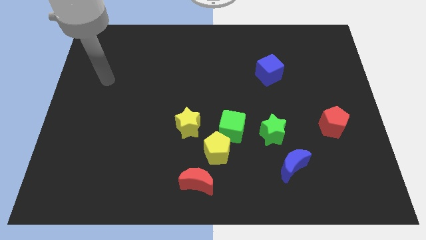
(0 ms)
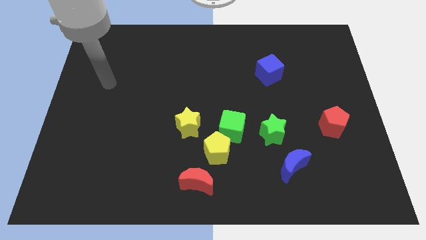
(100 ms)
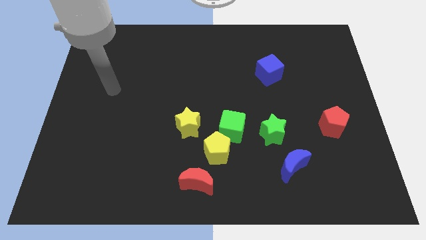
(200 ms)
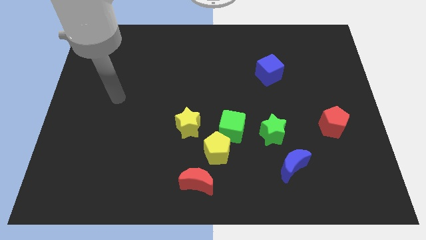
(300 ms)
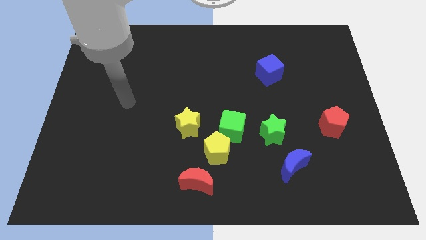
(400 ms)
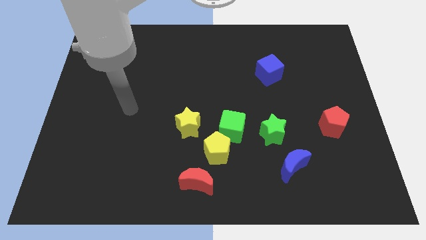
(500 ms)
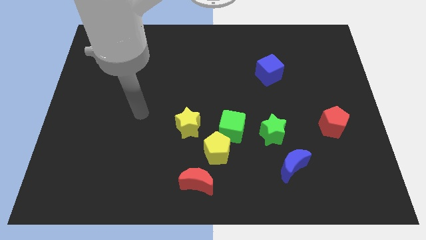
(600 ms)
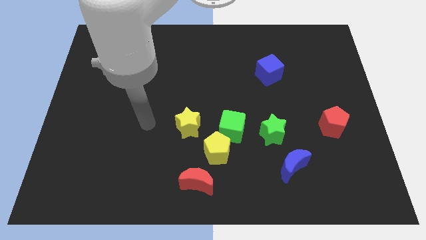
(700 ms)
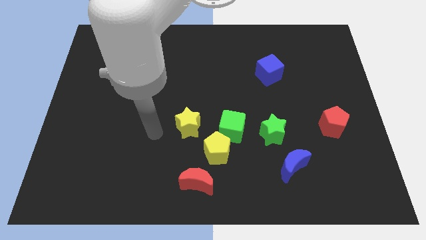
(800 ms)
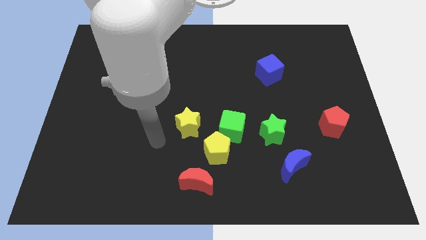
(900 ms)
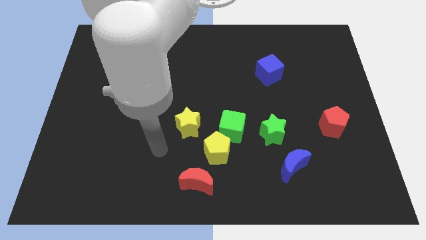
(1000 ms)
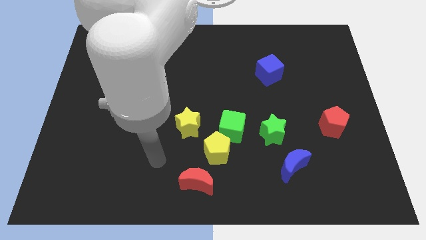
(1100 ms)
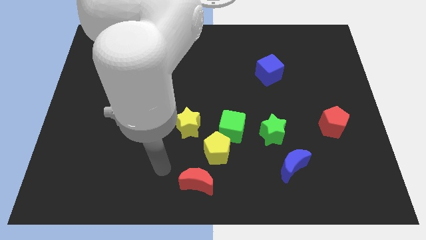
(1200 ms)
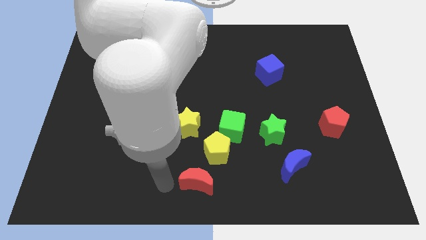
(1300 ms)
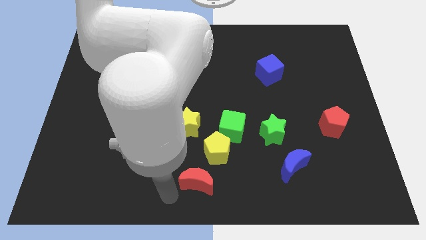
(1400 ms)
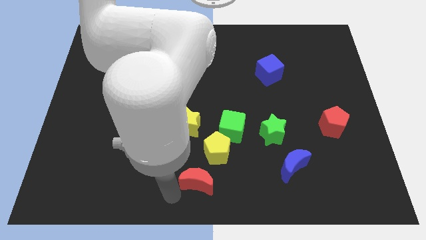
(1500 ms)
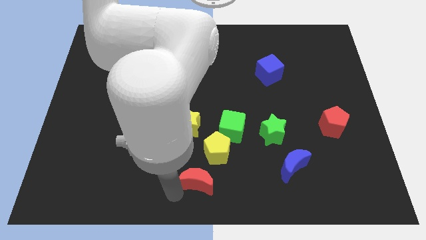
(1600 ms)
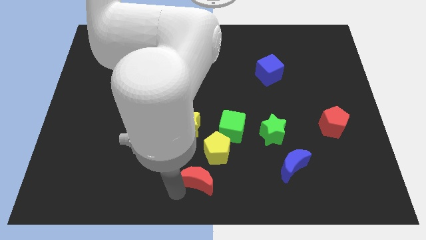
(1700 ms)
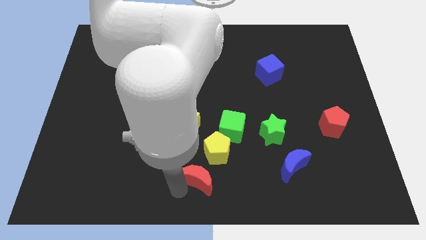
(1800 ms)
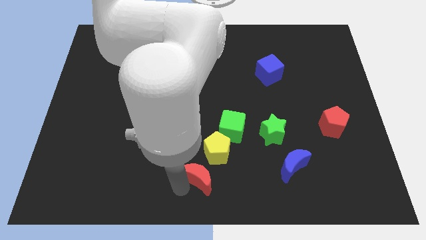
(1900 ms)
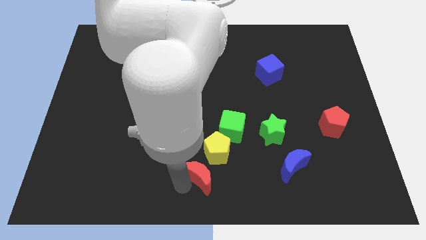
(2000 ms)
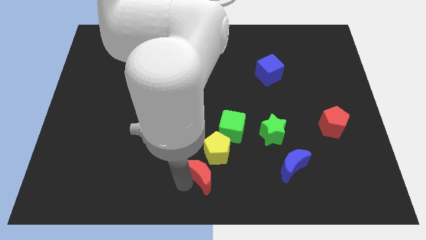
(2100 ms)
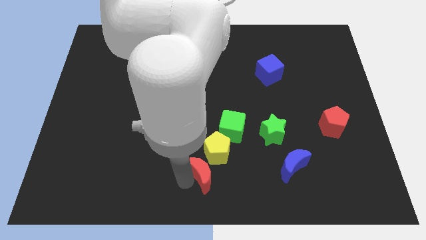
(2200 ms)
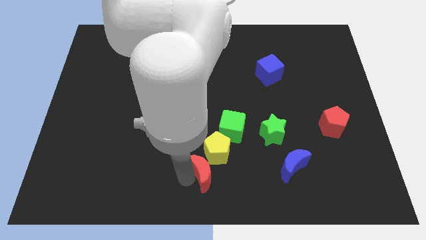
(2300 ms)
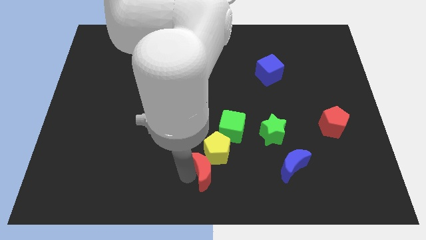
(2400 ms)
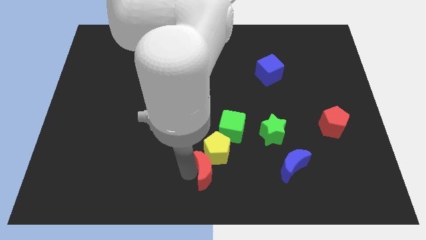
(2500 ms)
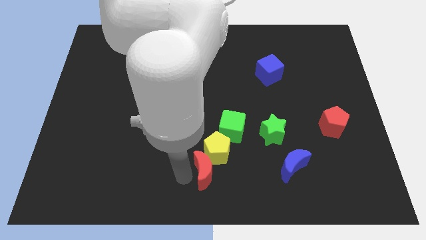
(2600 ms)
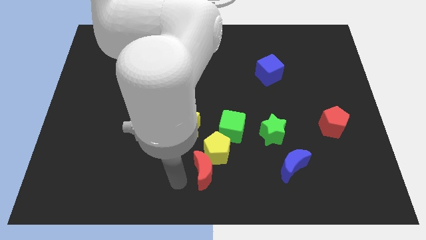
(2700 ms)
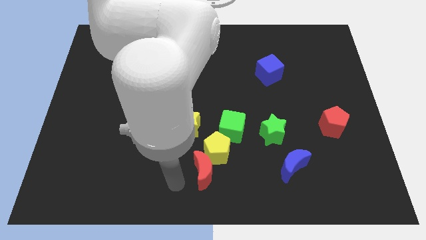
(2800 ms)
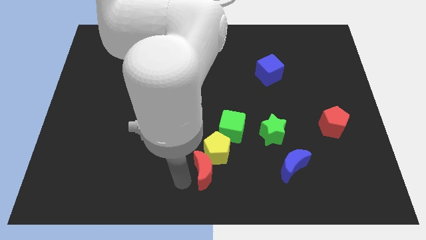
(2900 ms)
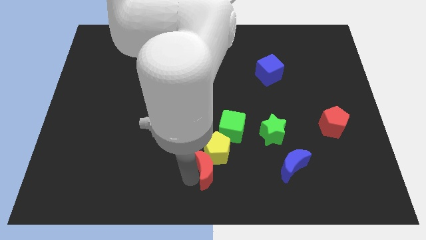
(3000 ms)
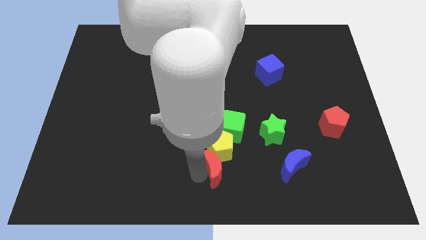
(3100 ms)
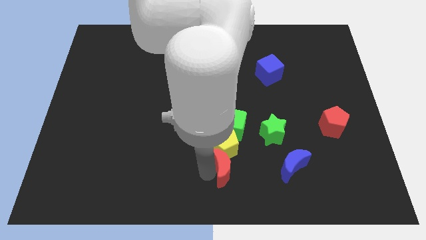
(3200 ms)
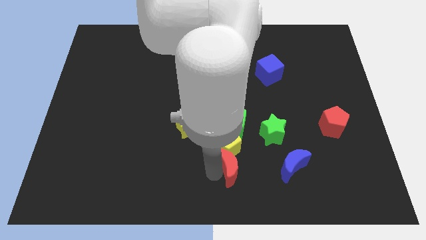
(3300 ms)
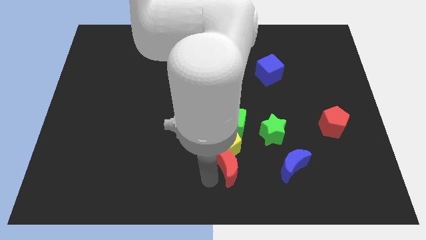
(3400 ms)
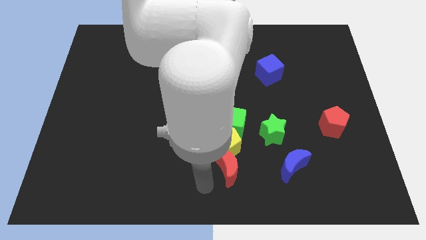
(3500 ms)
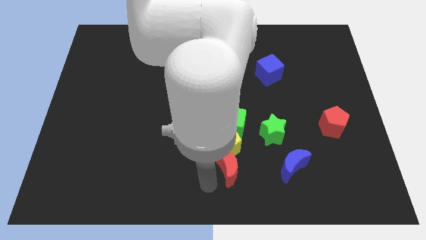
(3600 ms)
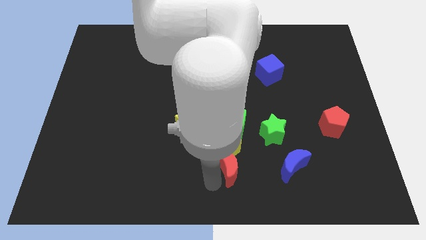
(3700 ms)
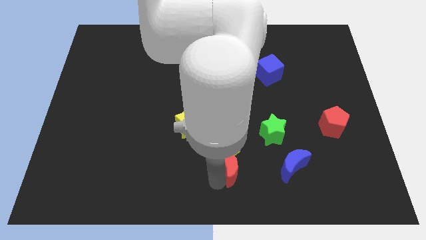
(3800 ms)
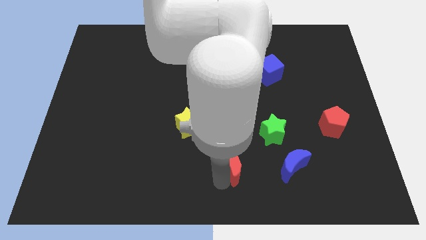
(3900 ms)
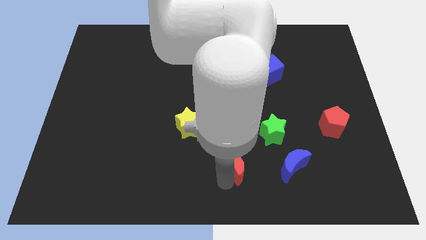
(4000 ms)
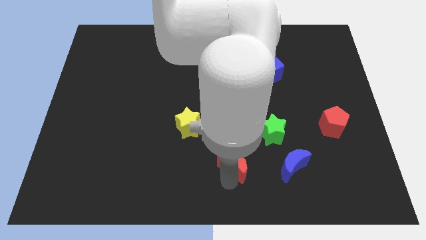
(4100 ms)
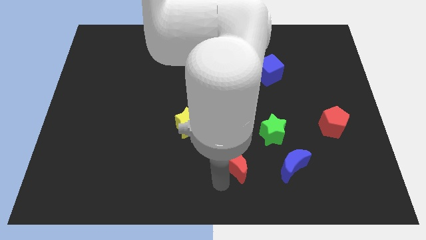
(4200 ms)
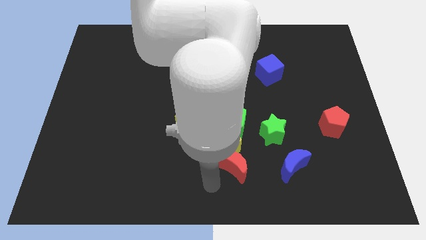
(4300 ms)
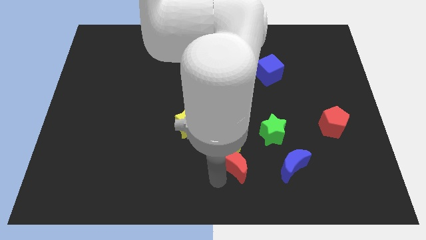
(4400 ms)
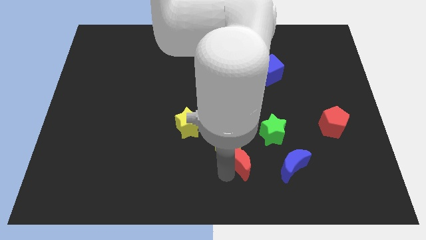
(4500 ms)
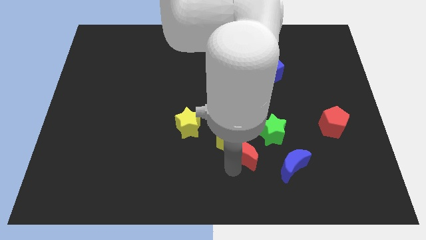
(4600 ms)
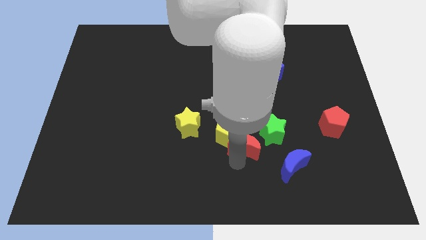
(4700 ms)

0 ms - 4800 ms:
slide the red moon to the top left of the blue moon

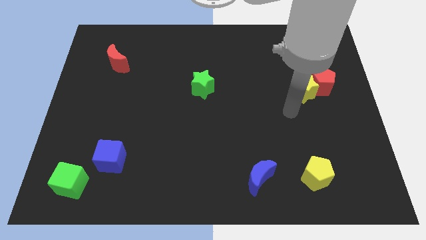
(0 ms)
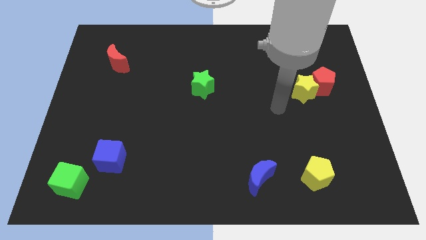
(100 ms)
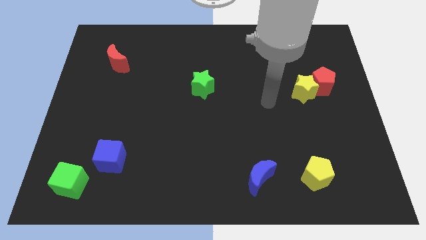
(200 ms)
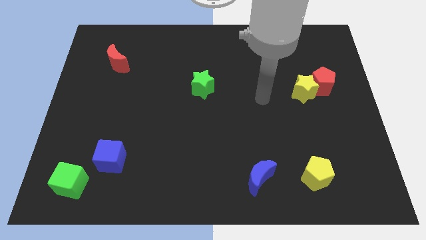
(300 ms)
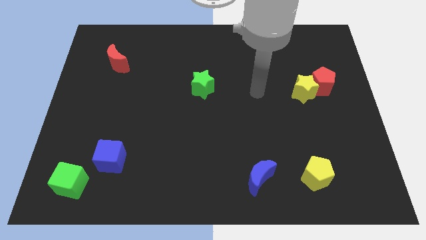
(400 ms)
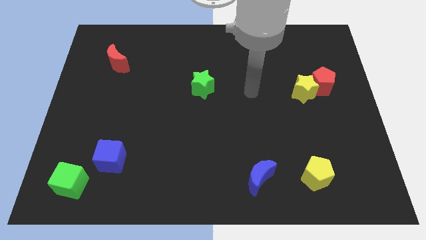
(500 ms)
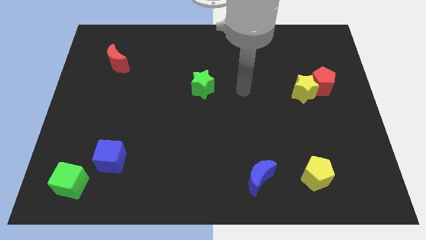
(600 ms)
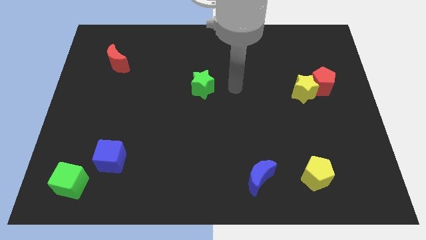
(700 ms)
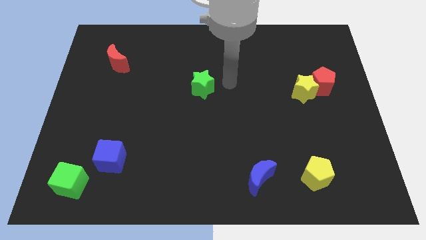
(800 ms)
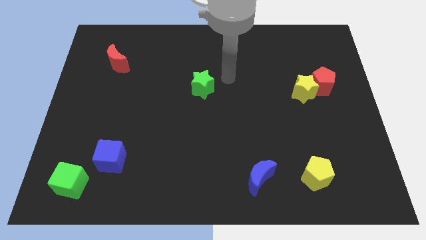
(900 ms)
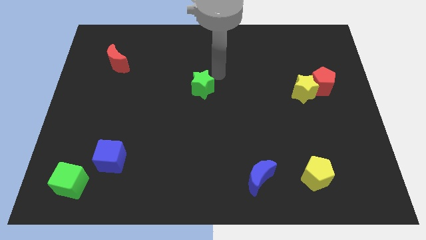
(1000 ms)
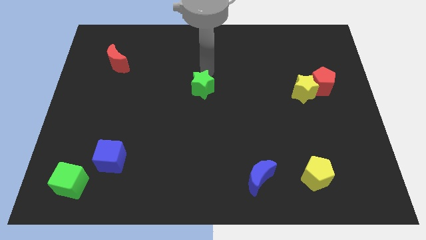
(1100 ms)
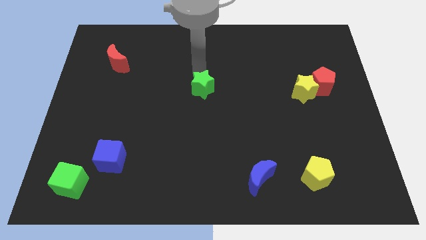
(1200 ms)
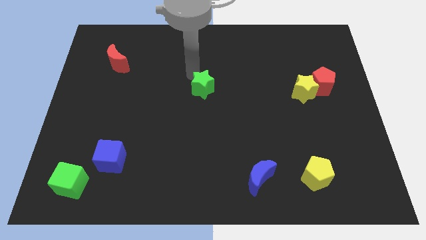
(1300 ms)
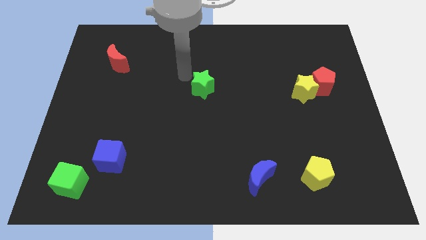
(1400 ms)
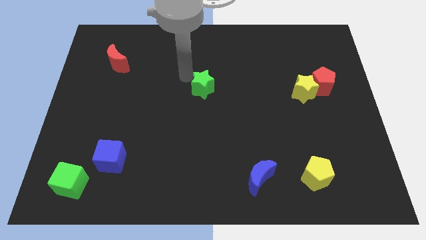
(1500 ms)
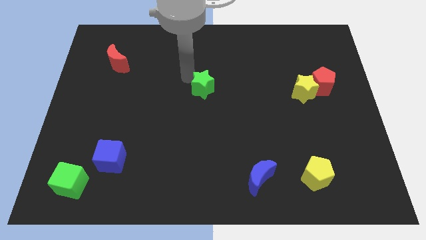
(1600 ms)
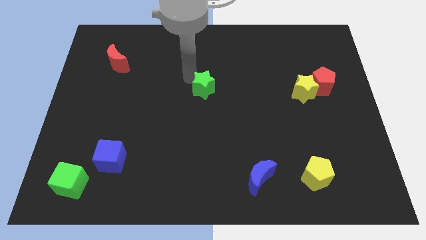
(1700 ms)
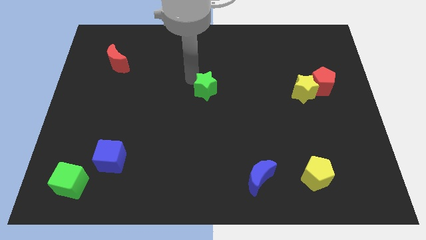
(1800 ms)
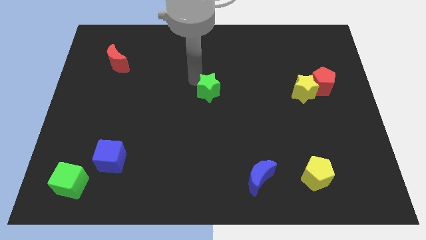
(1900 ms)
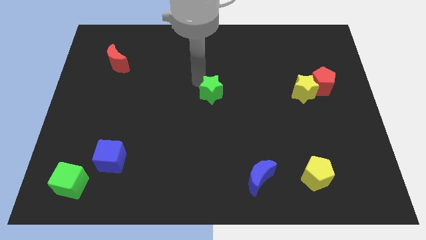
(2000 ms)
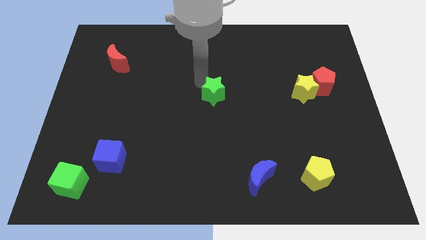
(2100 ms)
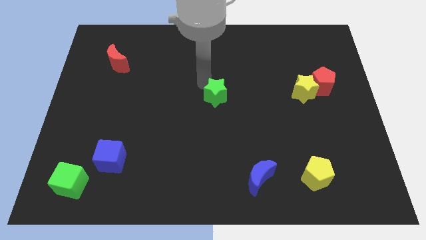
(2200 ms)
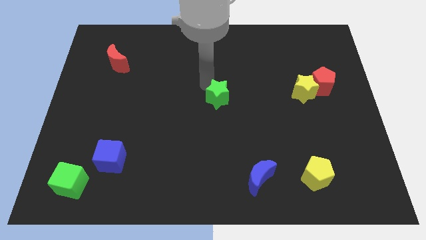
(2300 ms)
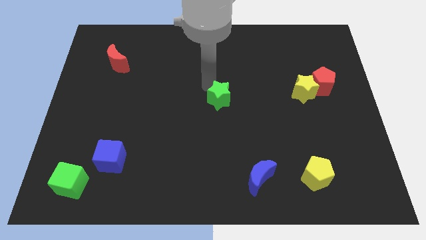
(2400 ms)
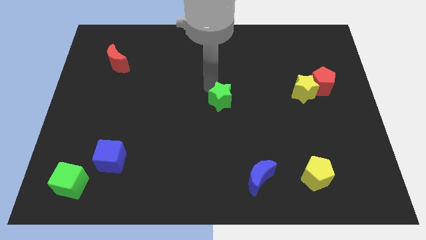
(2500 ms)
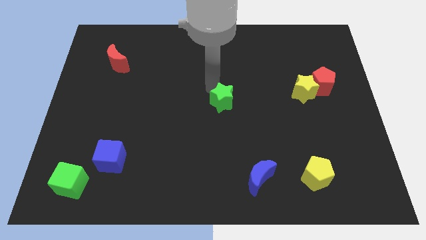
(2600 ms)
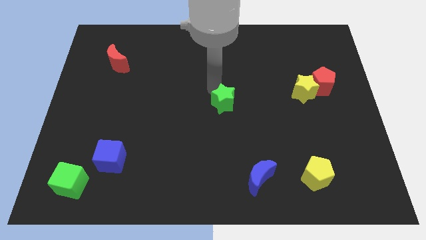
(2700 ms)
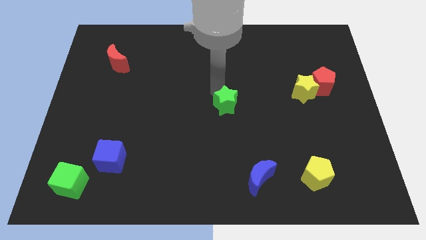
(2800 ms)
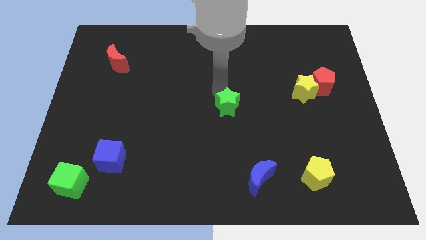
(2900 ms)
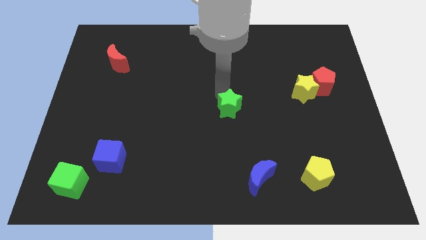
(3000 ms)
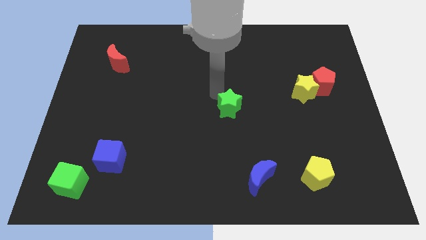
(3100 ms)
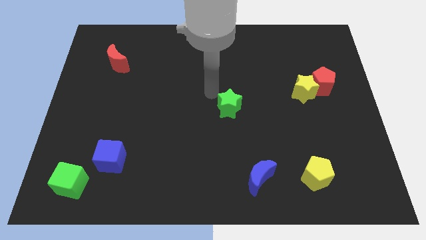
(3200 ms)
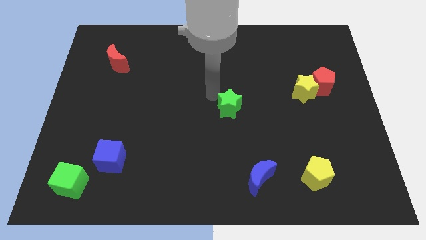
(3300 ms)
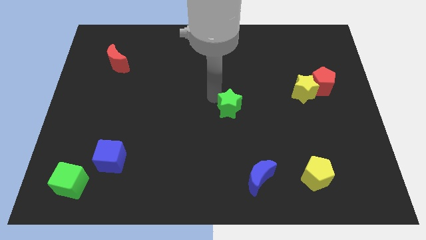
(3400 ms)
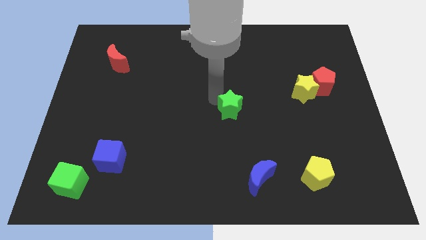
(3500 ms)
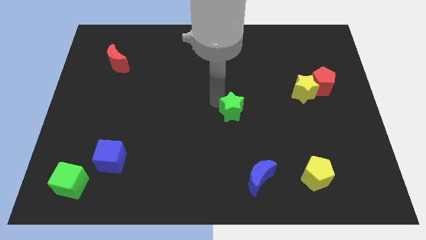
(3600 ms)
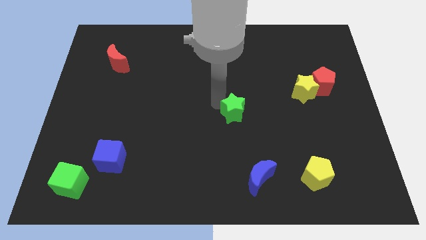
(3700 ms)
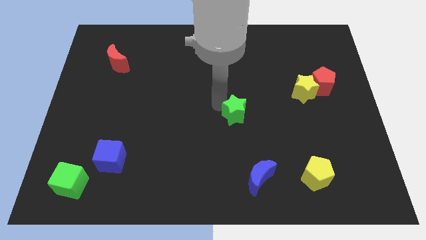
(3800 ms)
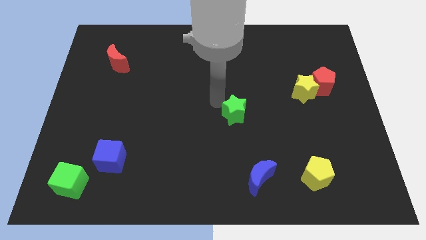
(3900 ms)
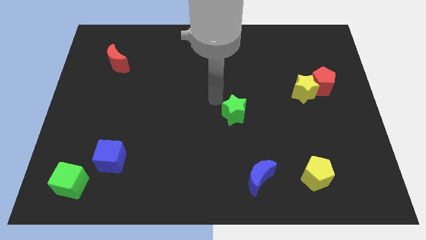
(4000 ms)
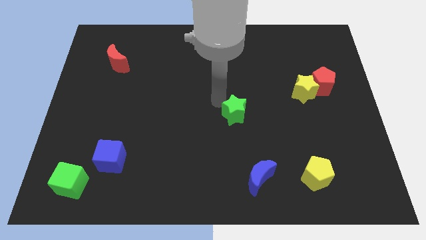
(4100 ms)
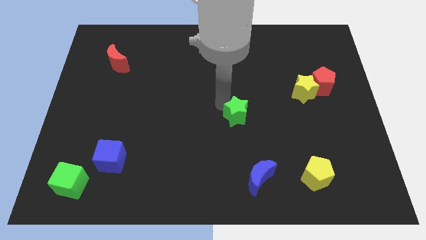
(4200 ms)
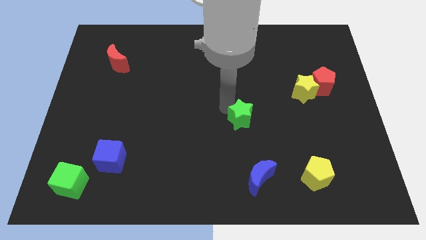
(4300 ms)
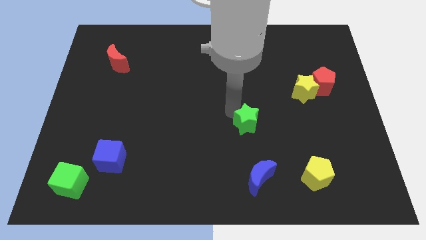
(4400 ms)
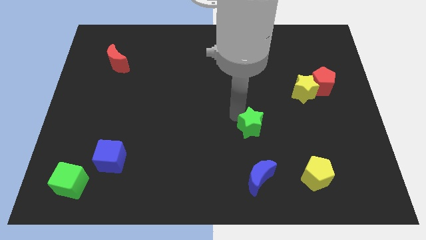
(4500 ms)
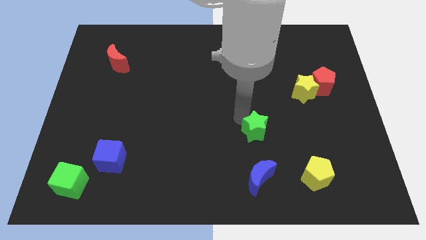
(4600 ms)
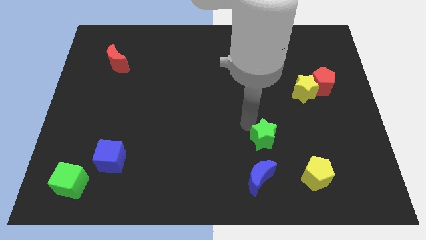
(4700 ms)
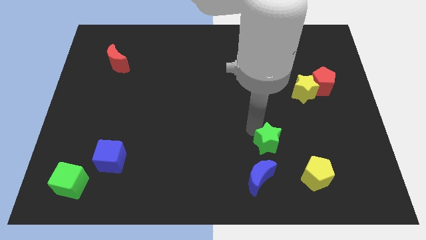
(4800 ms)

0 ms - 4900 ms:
slide the green star to the top right of the blue moon
